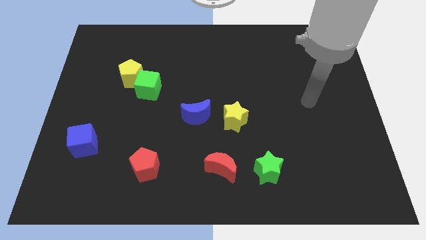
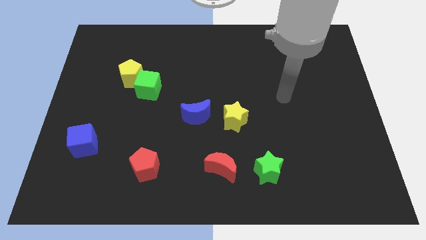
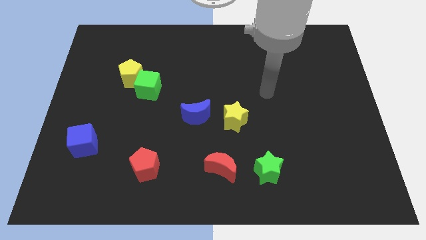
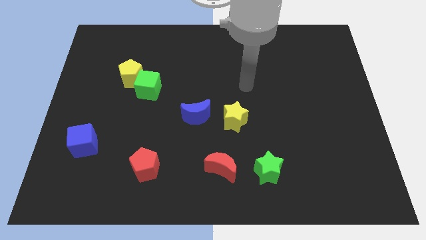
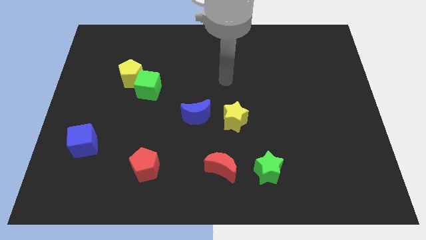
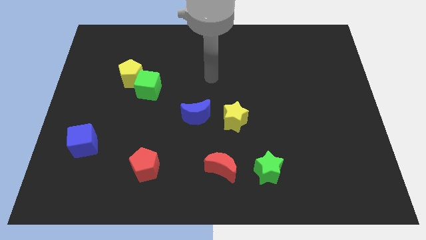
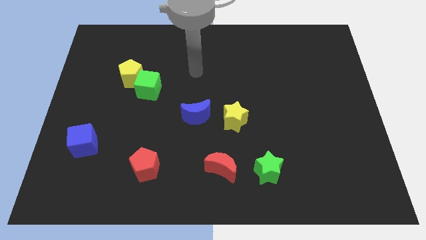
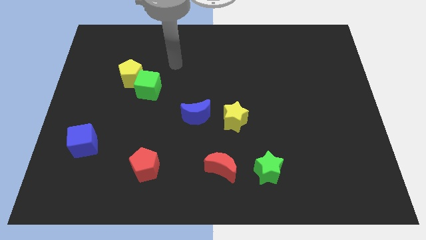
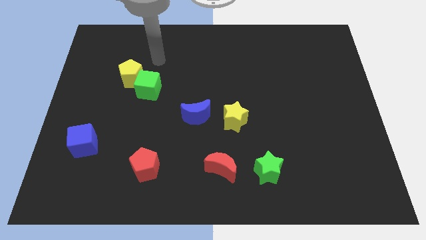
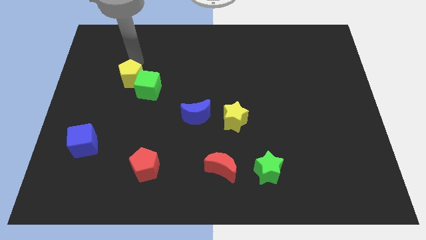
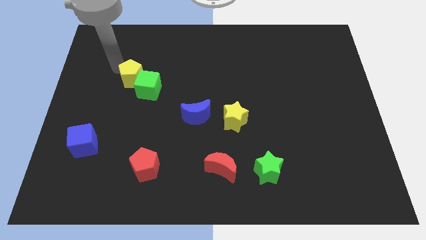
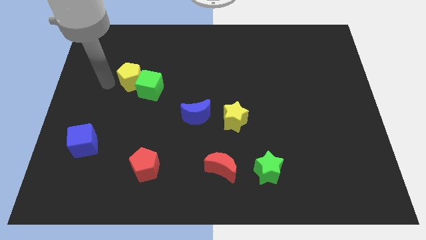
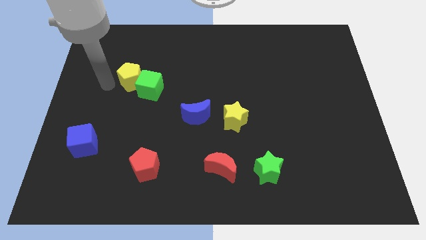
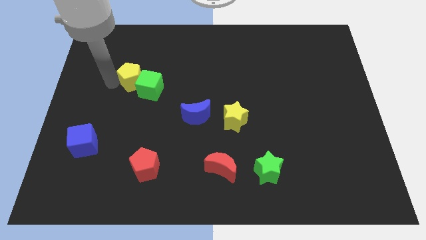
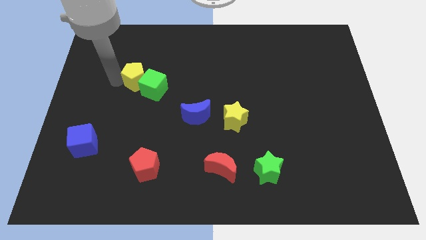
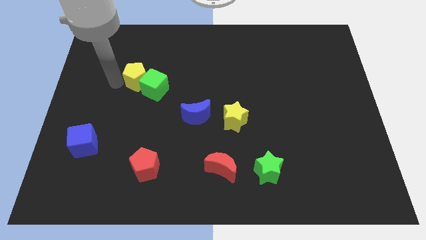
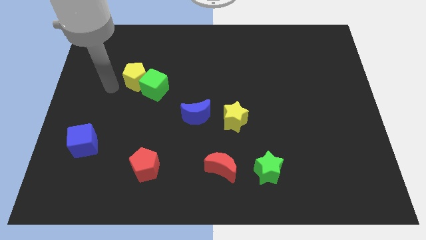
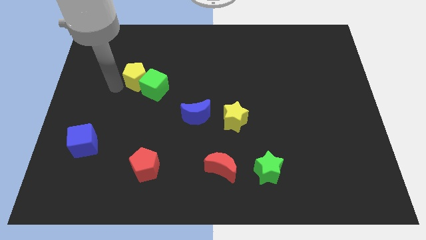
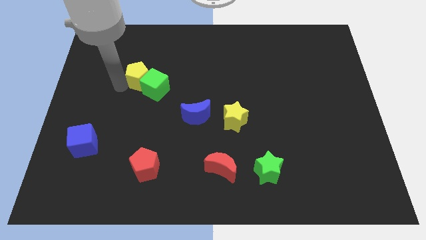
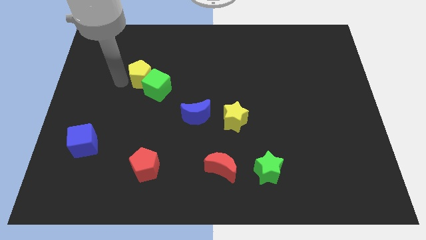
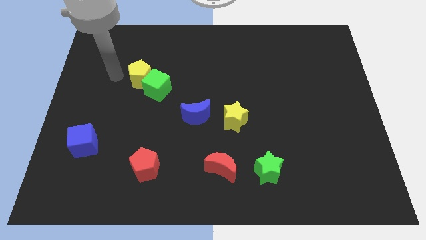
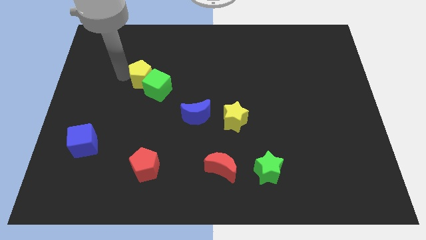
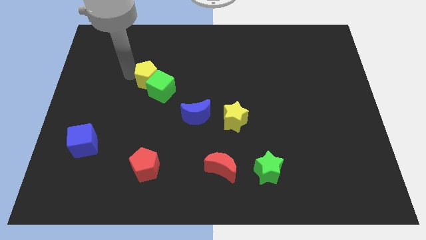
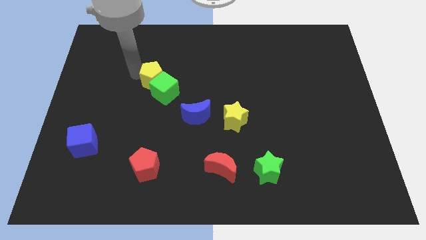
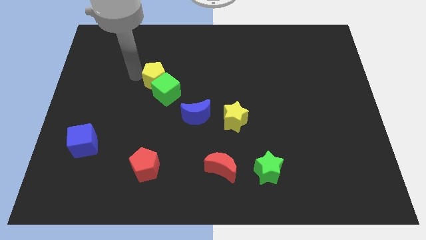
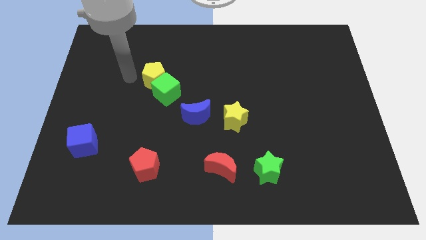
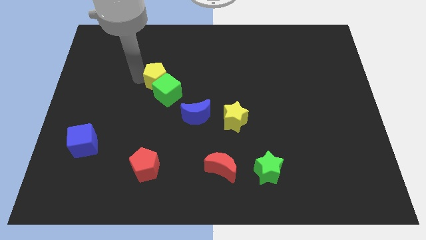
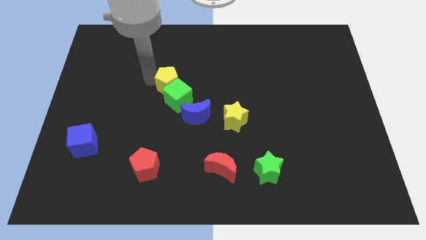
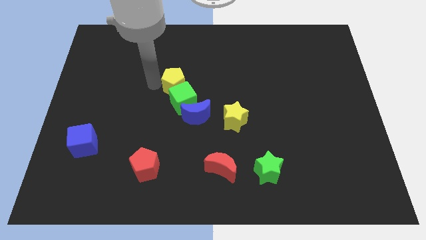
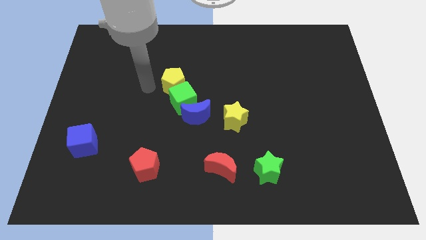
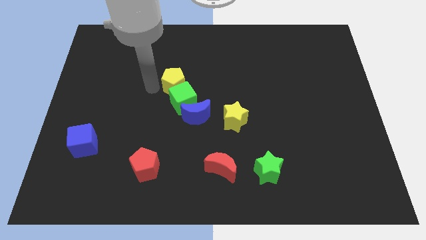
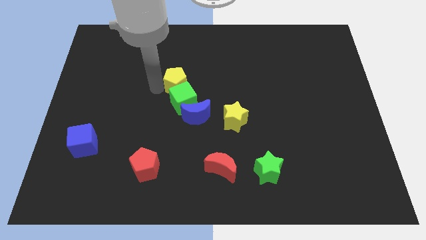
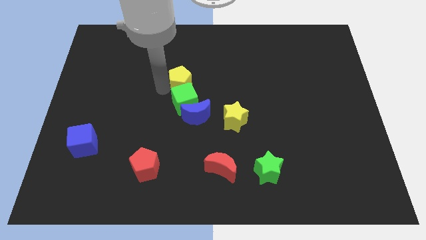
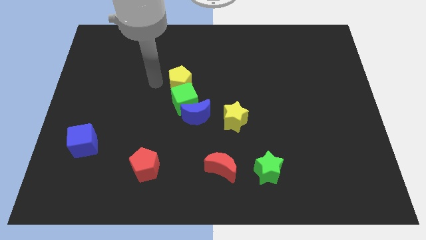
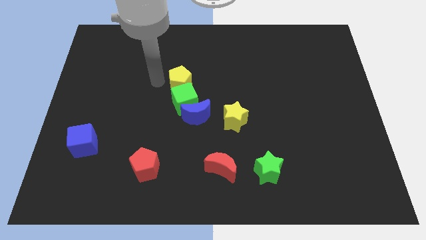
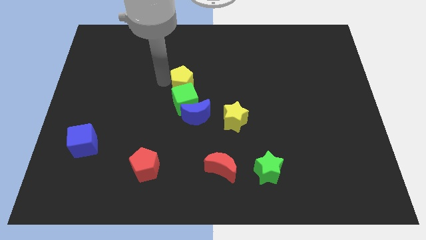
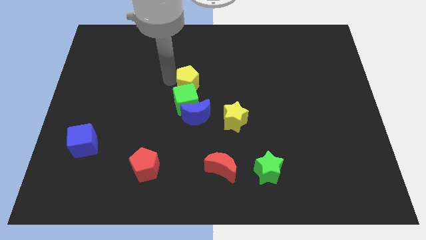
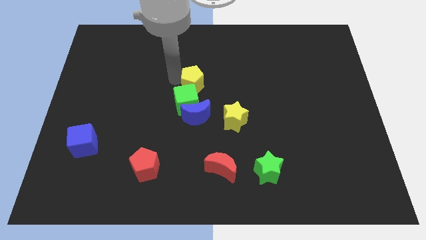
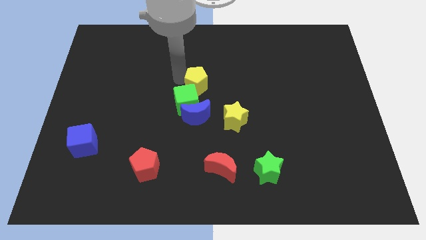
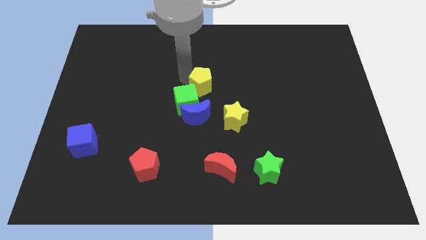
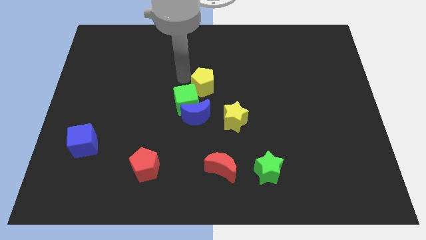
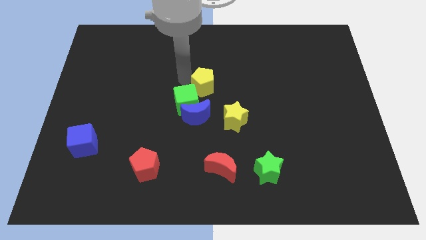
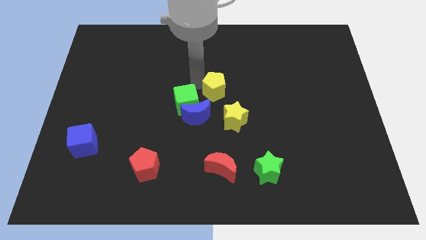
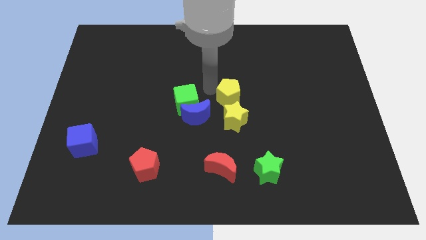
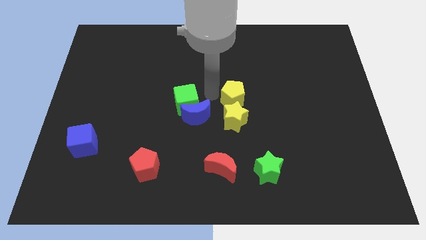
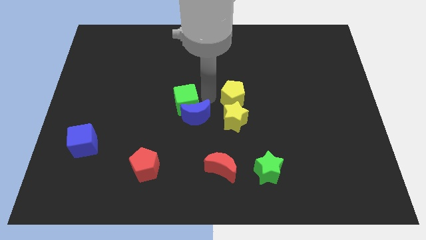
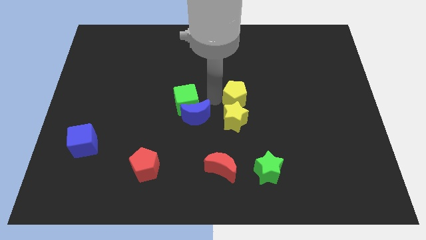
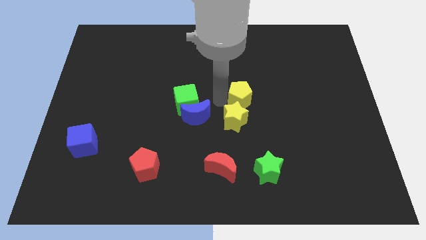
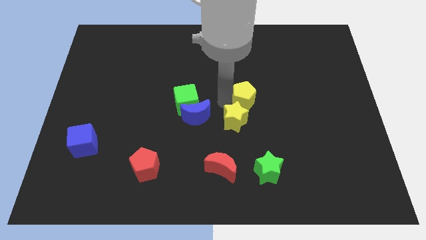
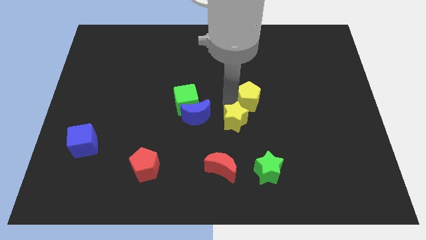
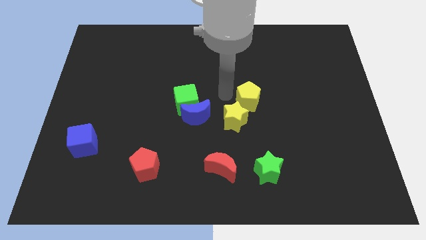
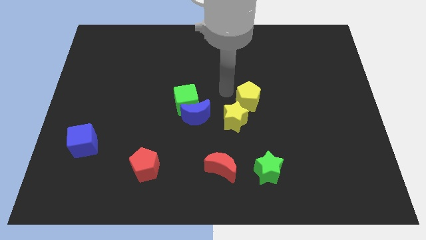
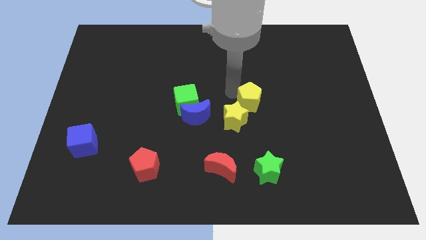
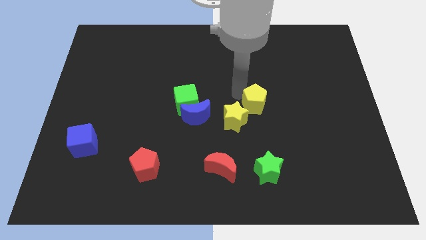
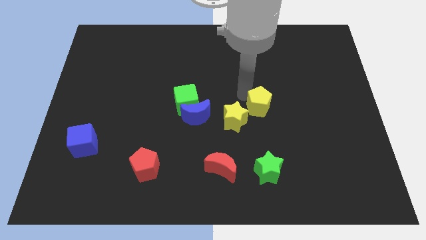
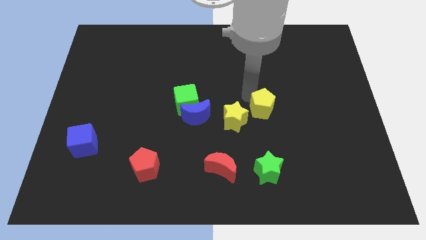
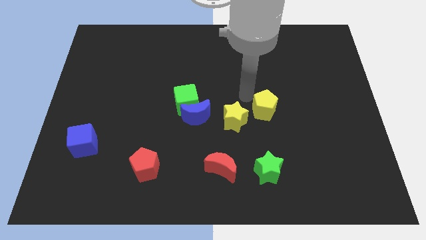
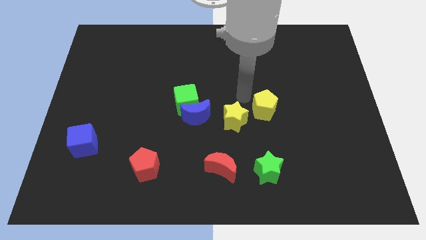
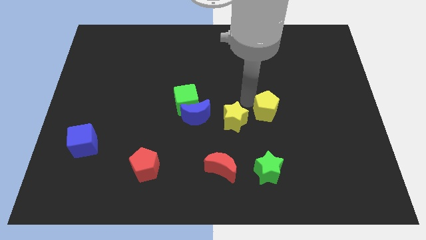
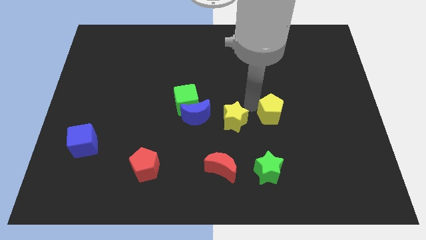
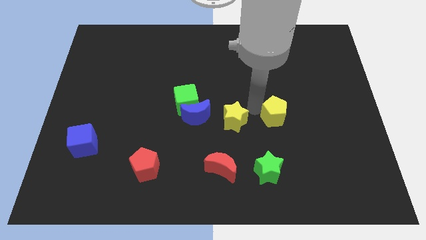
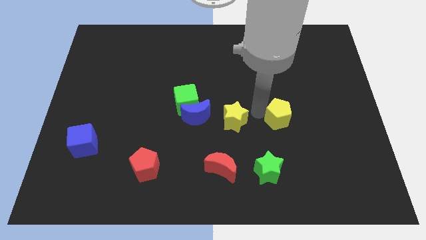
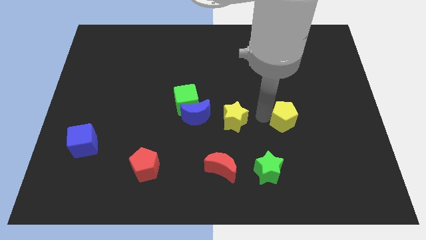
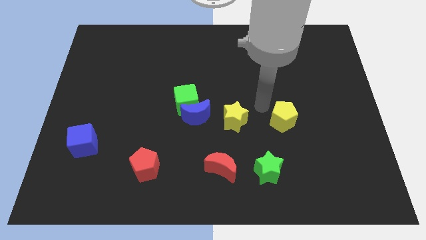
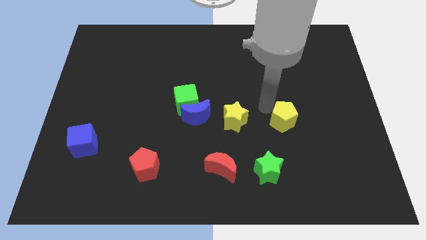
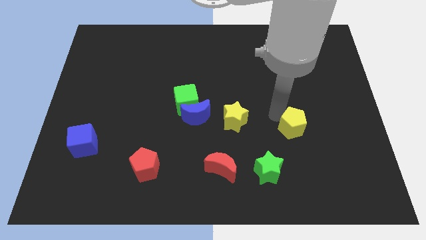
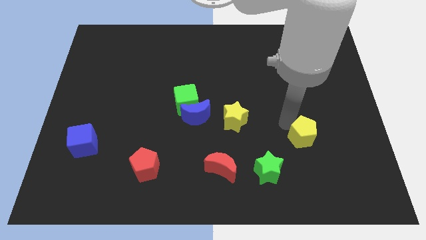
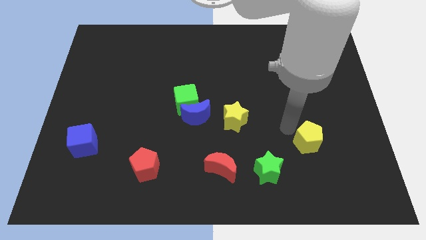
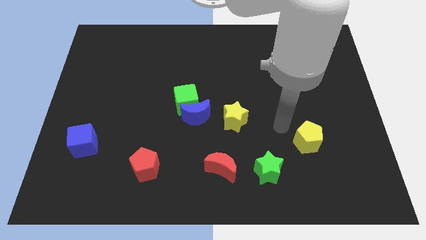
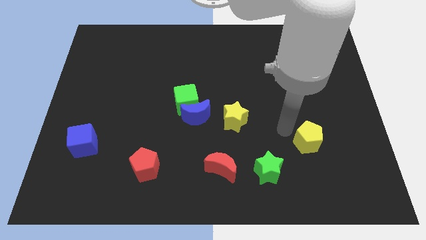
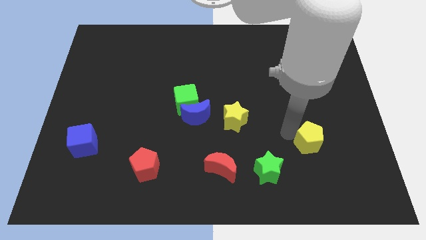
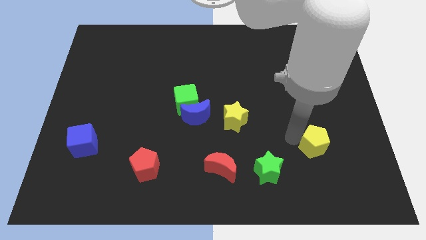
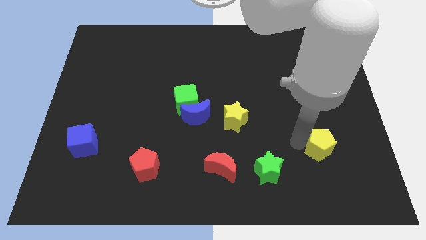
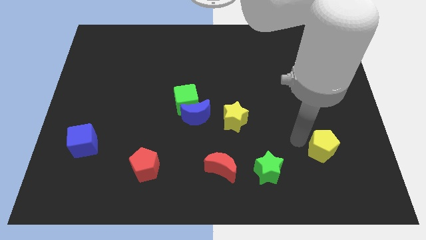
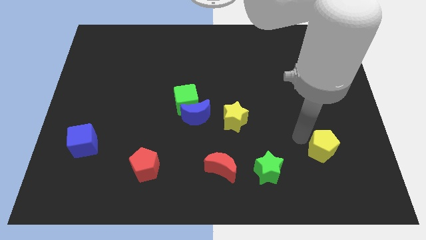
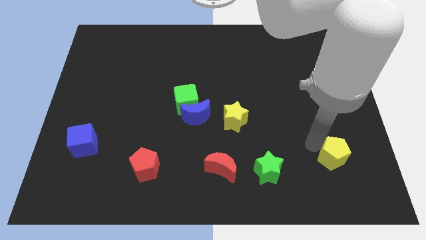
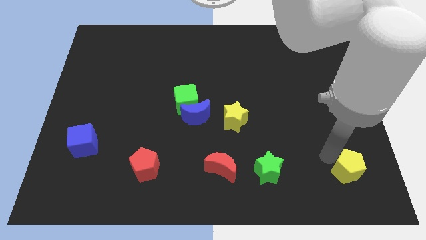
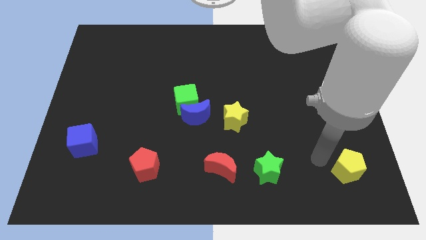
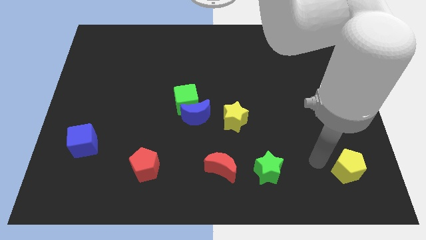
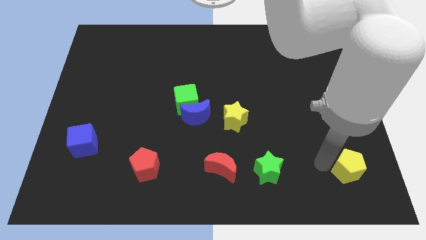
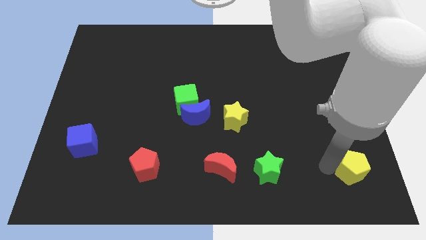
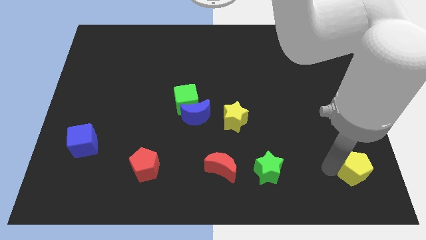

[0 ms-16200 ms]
slide the yellow pentagon to the lower right corner

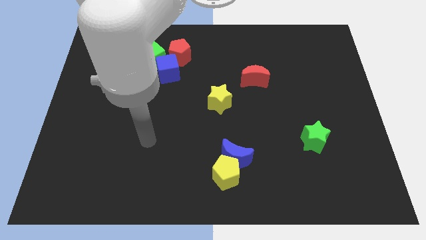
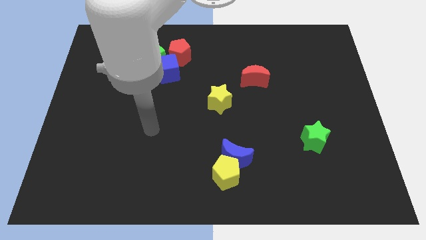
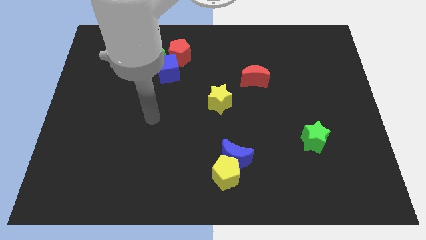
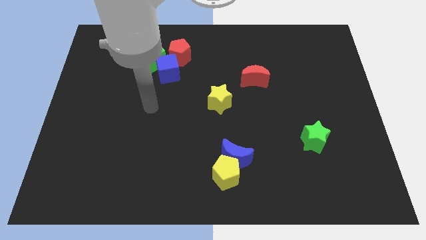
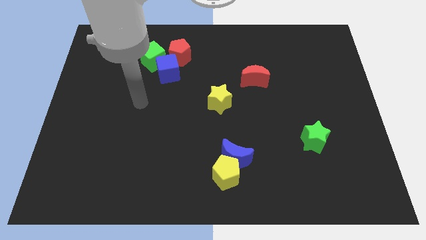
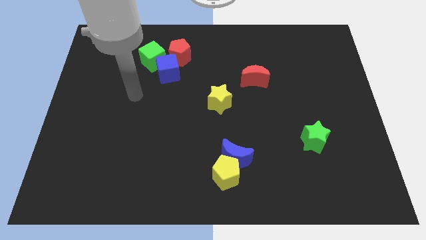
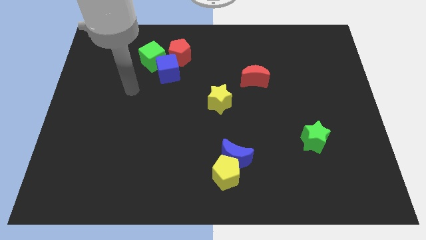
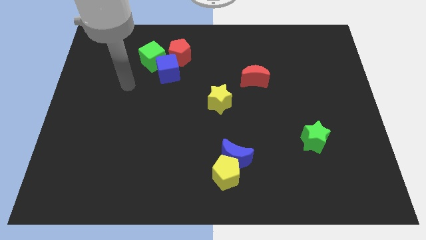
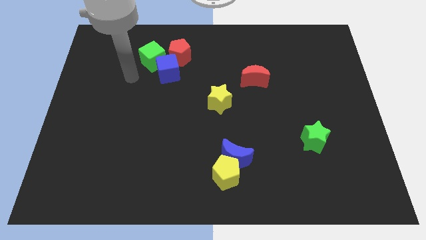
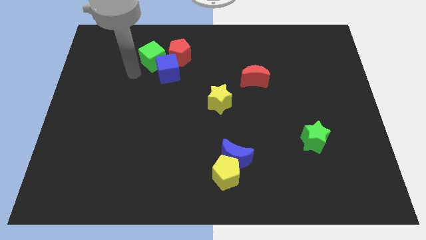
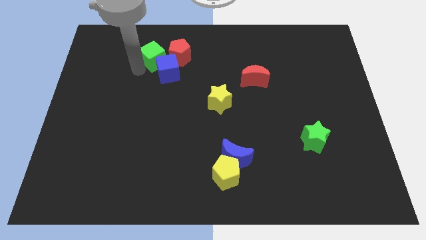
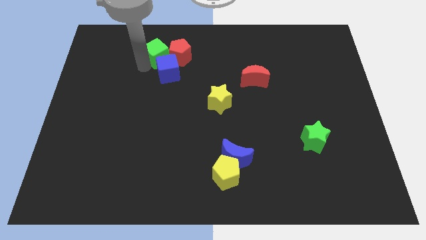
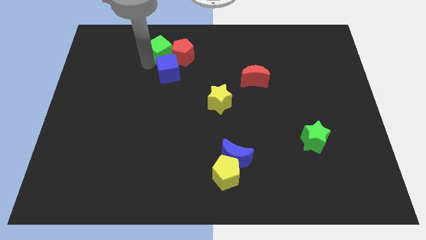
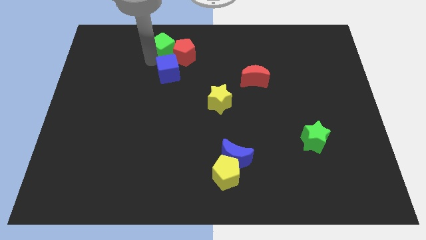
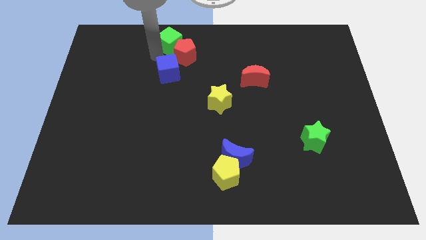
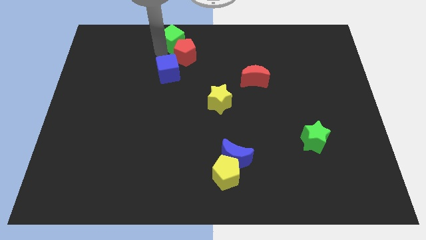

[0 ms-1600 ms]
push the green cube to the top side
